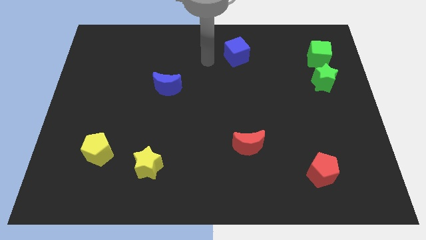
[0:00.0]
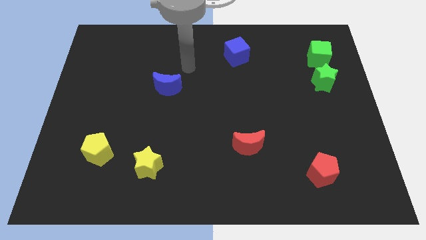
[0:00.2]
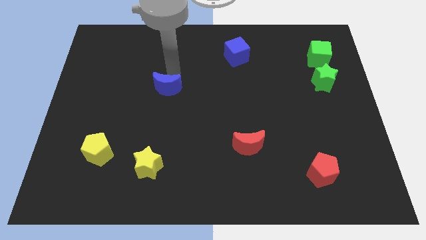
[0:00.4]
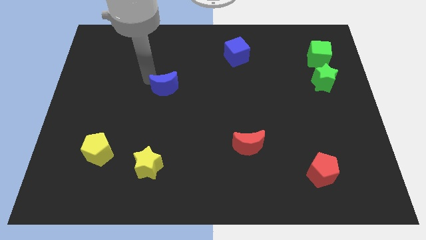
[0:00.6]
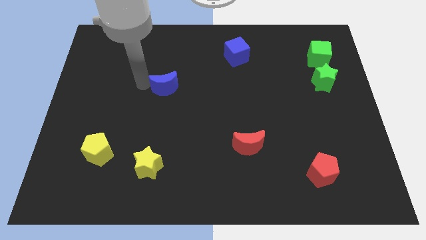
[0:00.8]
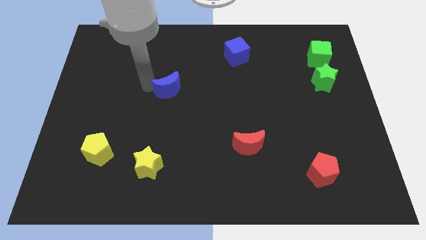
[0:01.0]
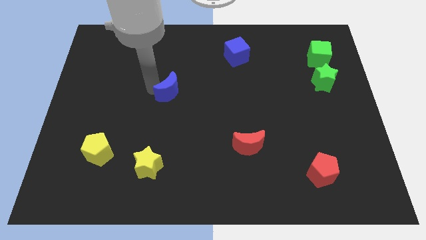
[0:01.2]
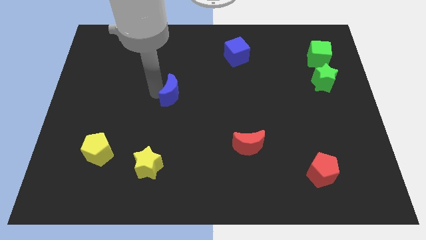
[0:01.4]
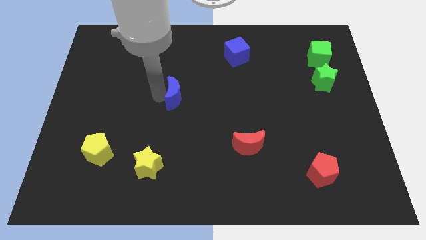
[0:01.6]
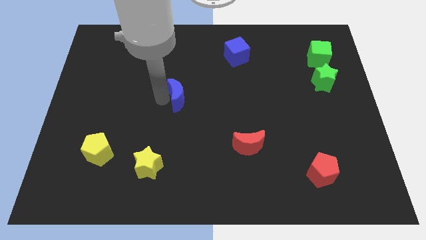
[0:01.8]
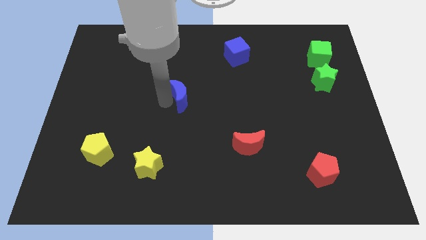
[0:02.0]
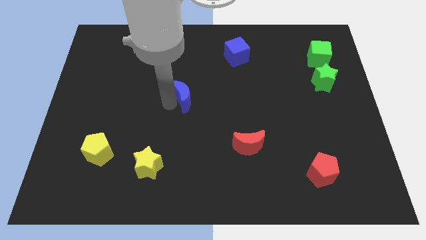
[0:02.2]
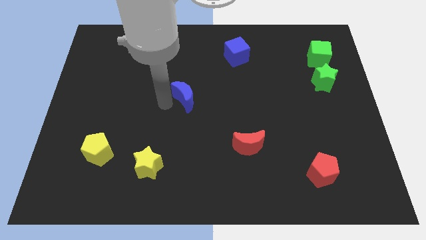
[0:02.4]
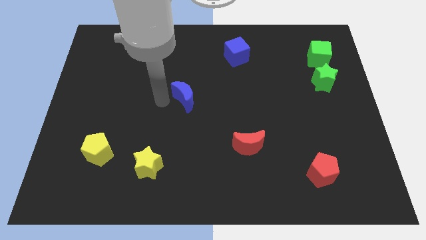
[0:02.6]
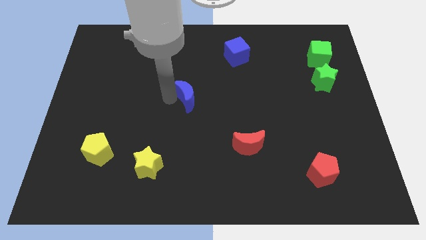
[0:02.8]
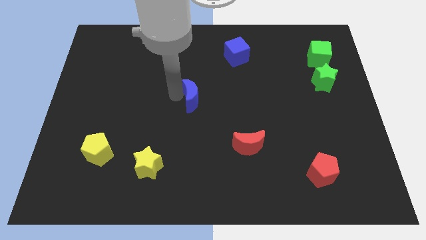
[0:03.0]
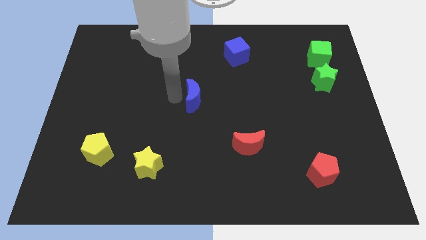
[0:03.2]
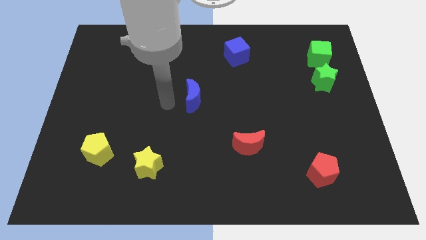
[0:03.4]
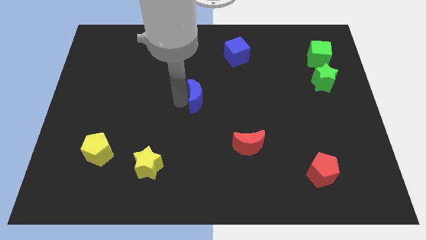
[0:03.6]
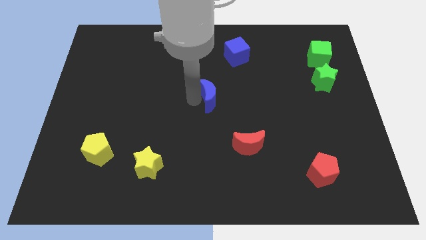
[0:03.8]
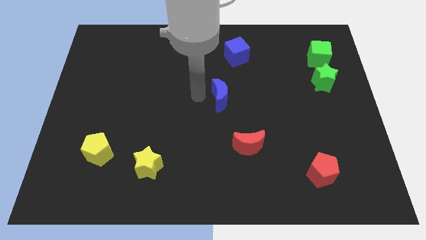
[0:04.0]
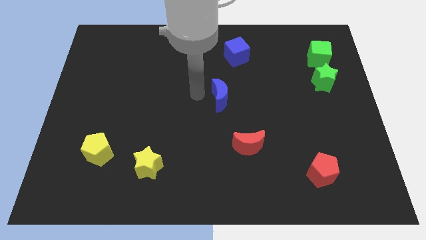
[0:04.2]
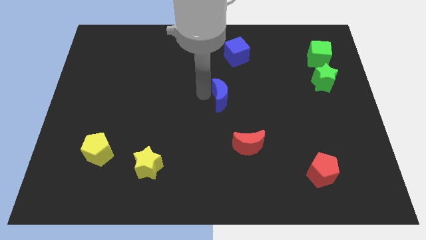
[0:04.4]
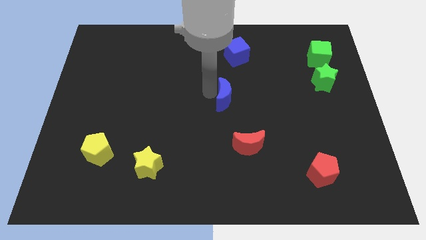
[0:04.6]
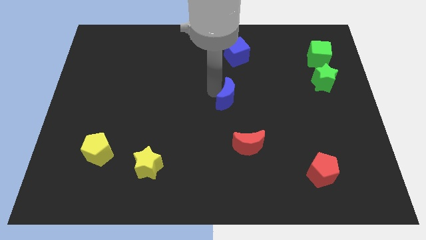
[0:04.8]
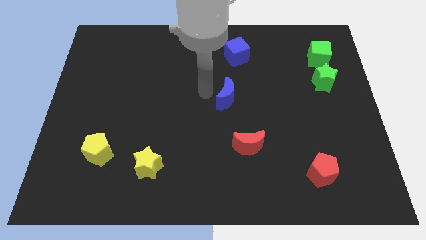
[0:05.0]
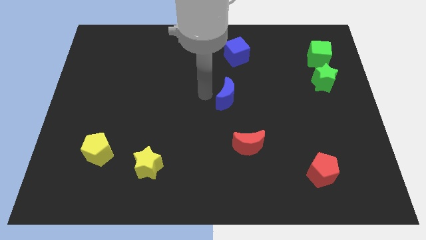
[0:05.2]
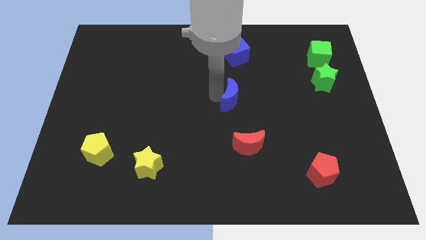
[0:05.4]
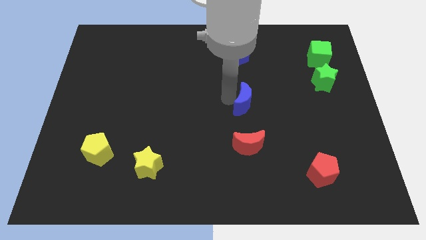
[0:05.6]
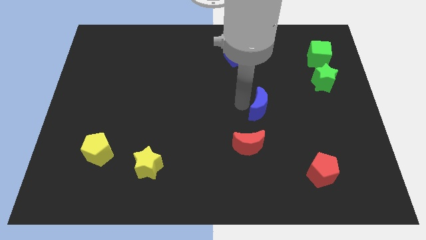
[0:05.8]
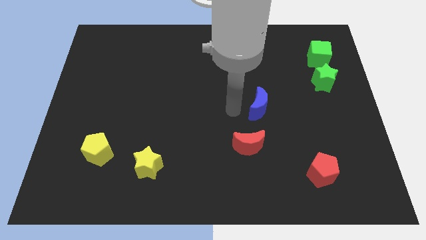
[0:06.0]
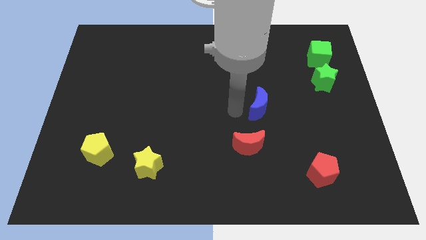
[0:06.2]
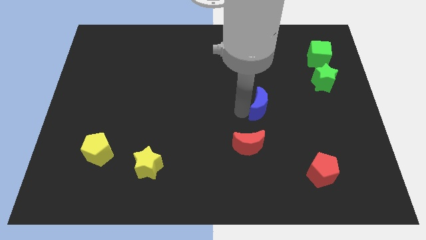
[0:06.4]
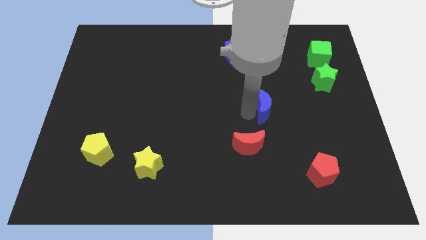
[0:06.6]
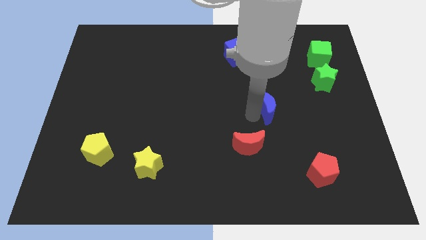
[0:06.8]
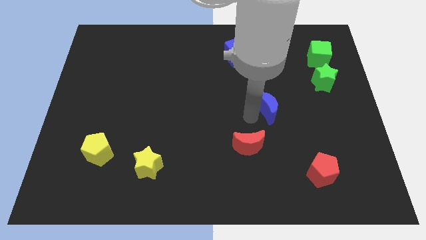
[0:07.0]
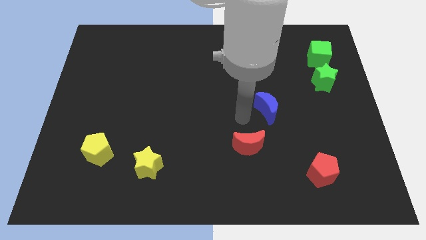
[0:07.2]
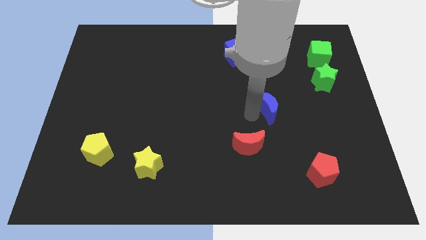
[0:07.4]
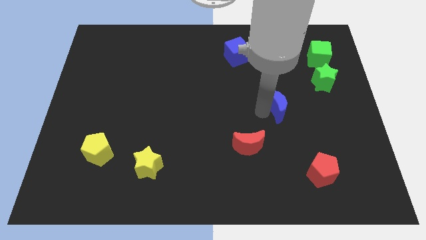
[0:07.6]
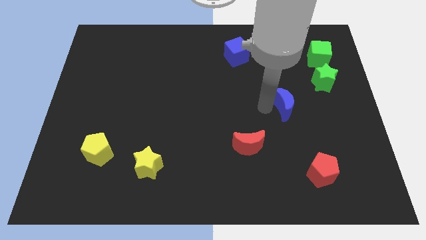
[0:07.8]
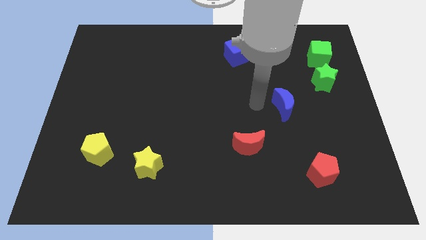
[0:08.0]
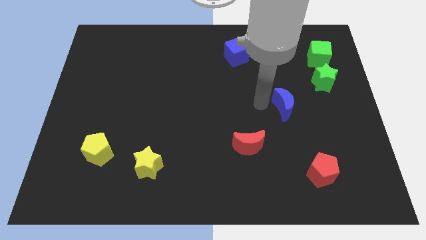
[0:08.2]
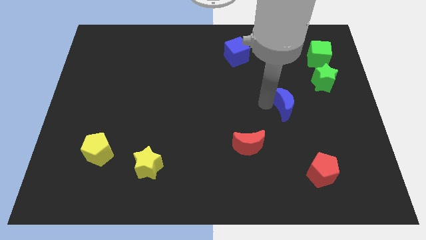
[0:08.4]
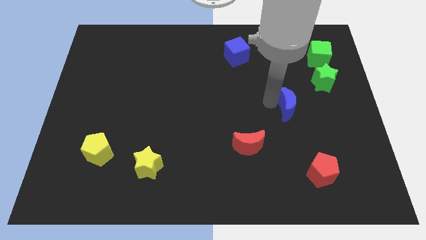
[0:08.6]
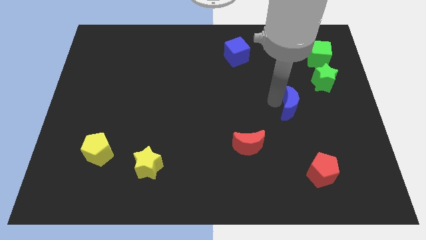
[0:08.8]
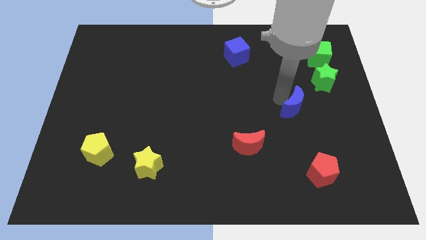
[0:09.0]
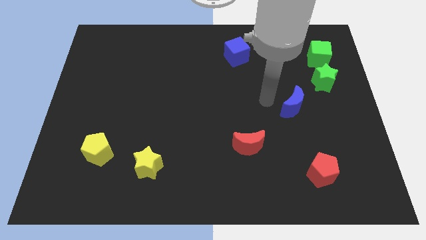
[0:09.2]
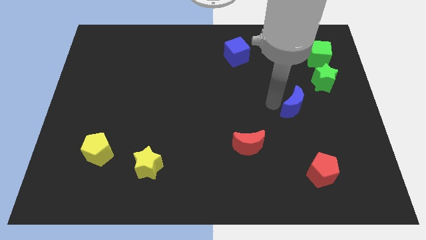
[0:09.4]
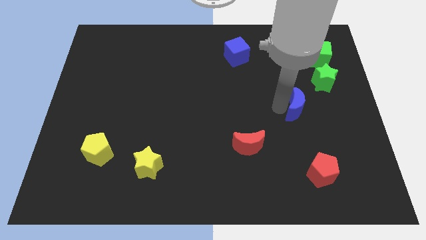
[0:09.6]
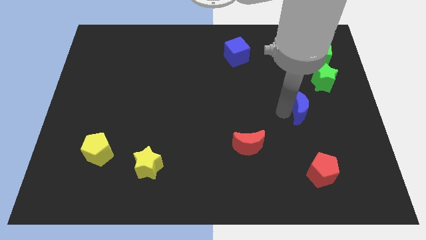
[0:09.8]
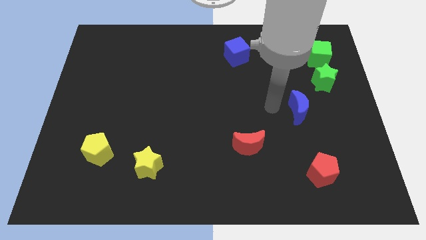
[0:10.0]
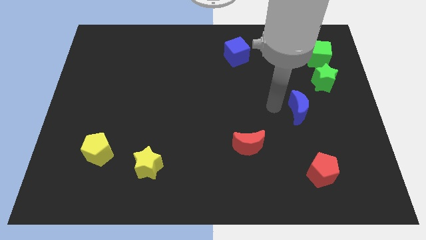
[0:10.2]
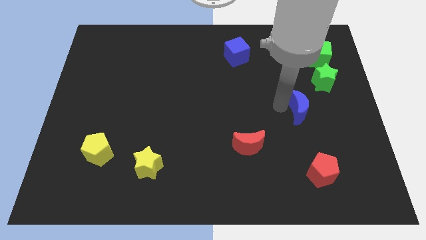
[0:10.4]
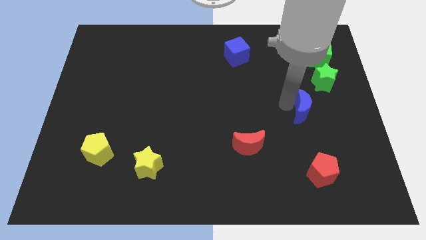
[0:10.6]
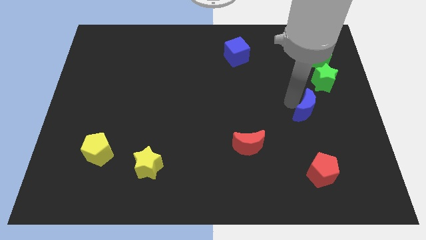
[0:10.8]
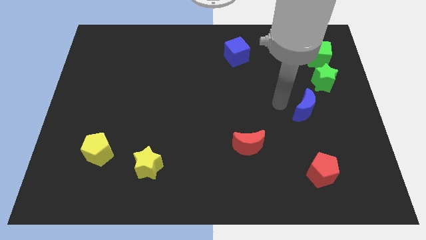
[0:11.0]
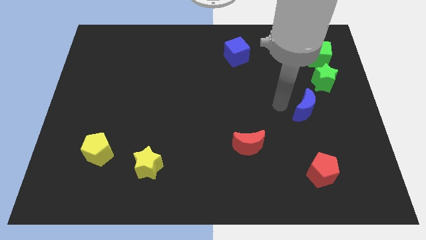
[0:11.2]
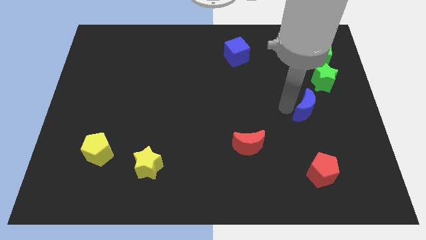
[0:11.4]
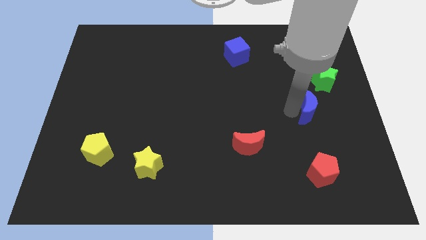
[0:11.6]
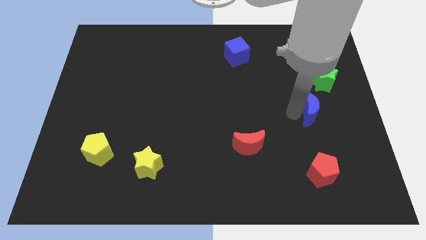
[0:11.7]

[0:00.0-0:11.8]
put the blue moon to the bottom of the green star

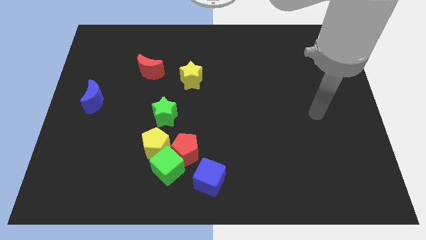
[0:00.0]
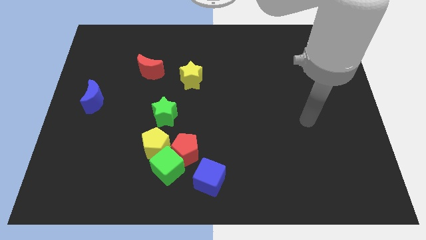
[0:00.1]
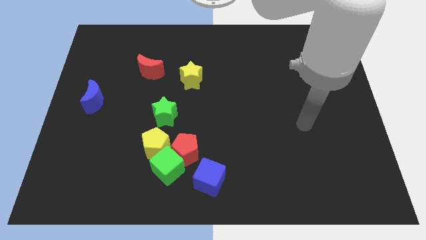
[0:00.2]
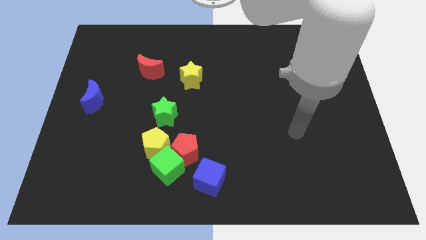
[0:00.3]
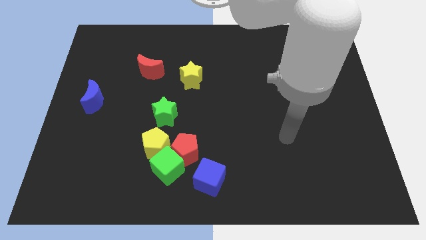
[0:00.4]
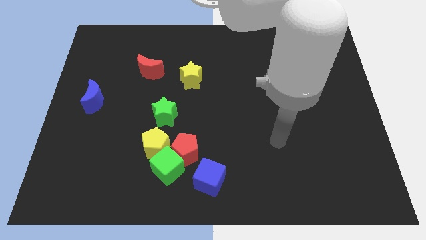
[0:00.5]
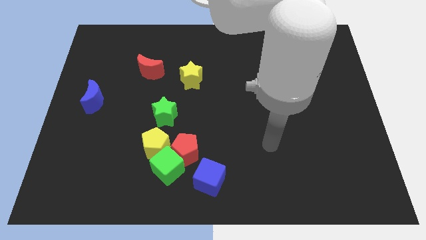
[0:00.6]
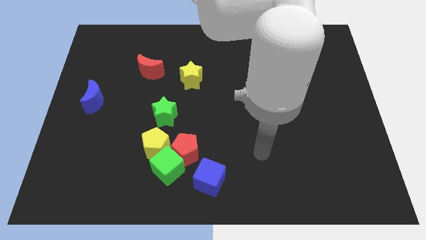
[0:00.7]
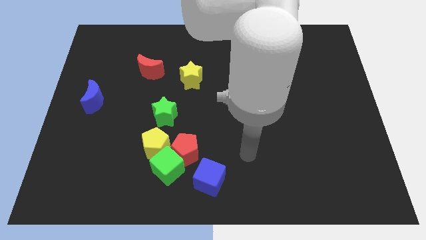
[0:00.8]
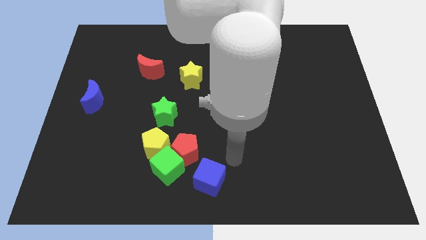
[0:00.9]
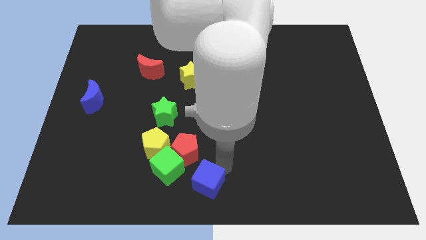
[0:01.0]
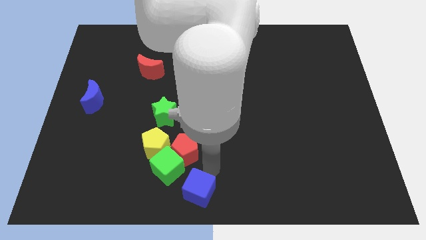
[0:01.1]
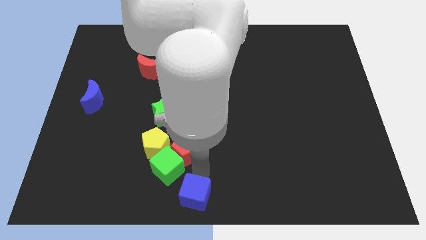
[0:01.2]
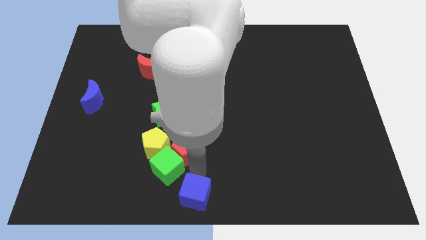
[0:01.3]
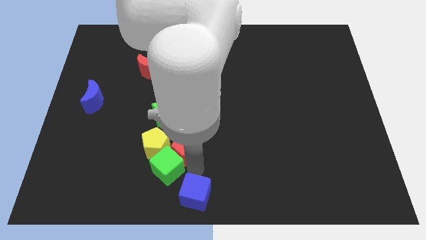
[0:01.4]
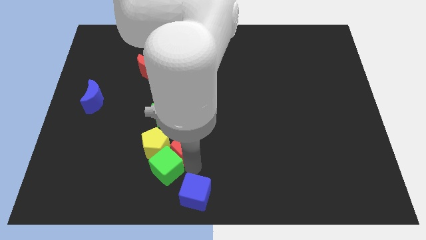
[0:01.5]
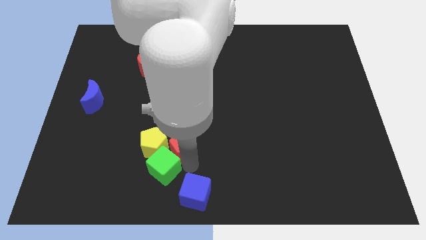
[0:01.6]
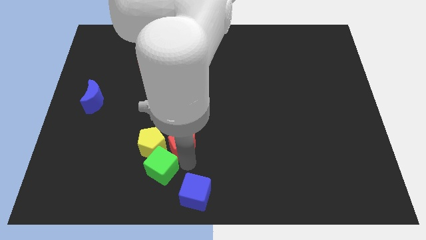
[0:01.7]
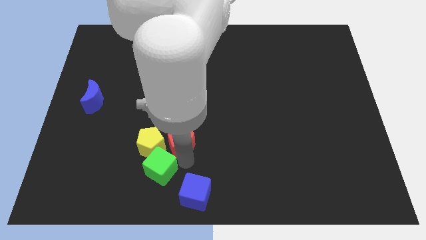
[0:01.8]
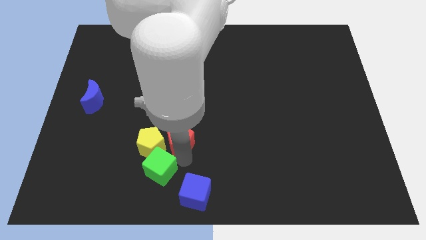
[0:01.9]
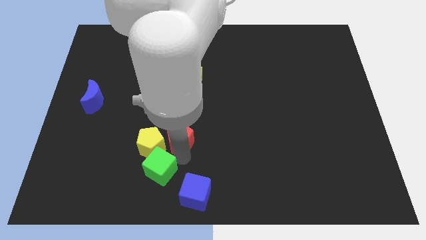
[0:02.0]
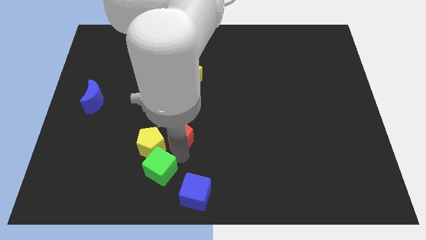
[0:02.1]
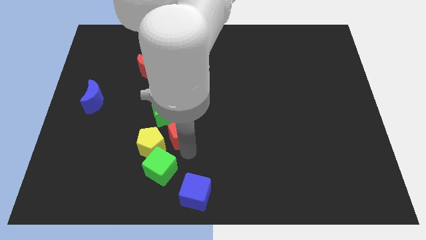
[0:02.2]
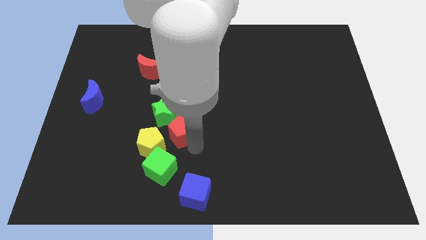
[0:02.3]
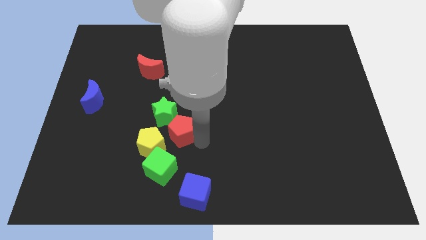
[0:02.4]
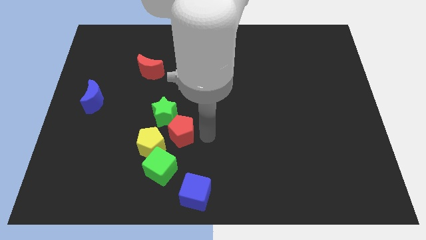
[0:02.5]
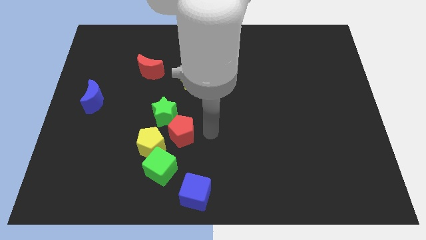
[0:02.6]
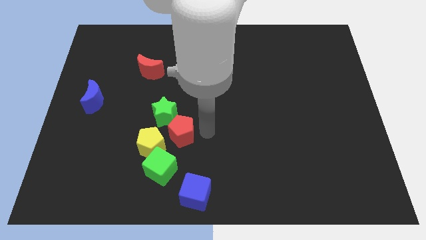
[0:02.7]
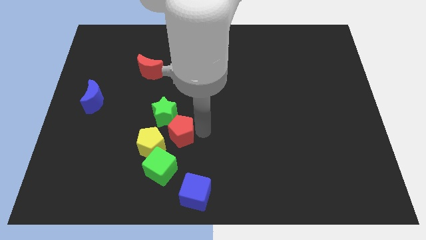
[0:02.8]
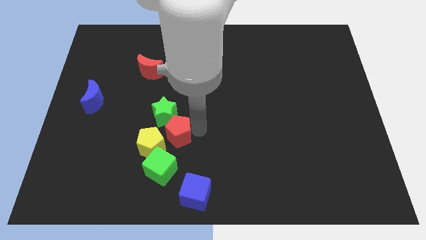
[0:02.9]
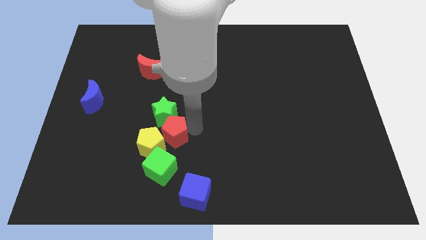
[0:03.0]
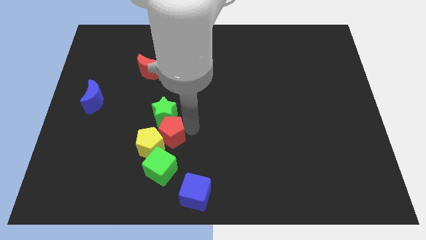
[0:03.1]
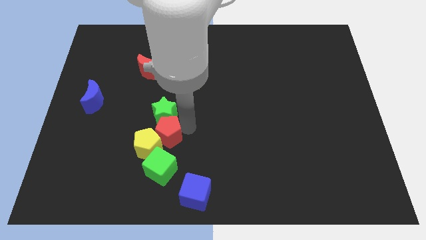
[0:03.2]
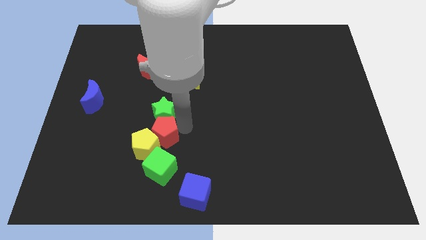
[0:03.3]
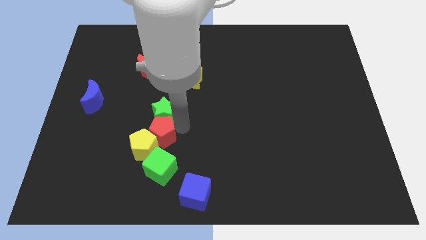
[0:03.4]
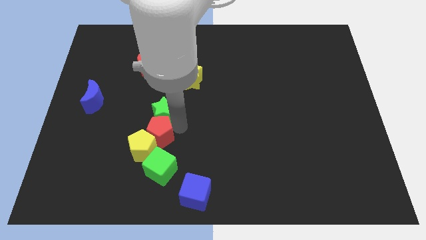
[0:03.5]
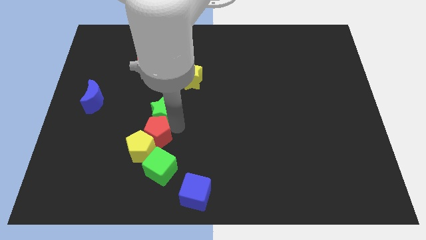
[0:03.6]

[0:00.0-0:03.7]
move the red pentagon to the top left side of the green cube
